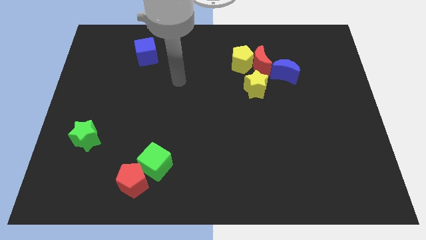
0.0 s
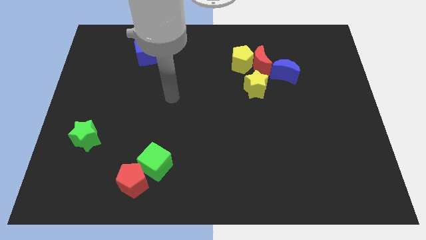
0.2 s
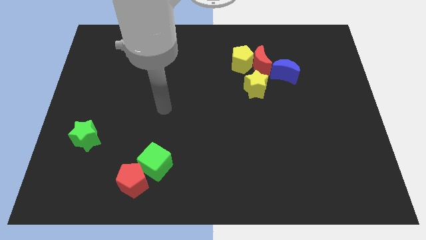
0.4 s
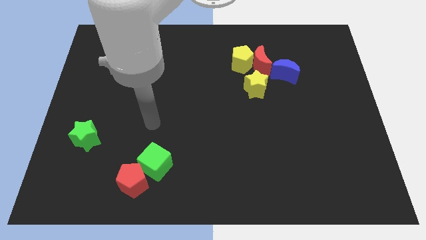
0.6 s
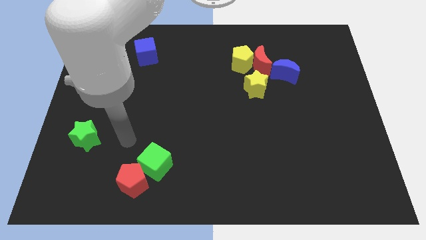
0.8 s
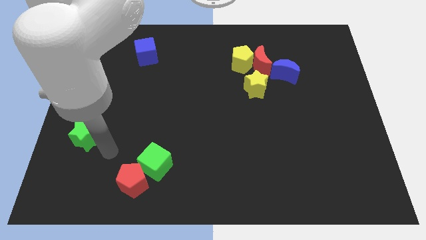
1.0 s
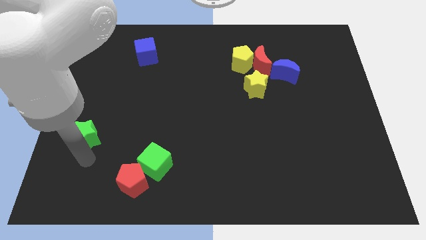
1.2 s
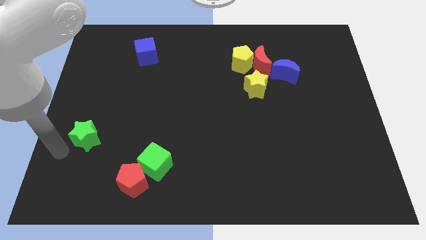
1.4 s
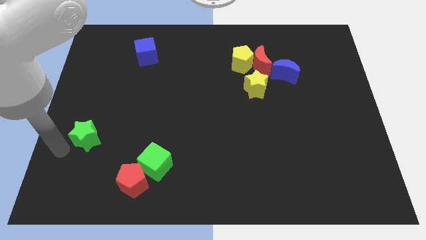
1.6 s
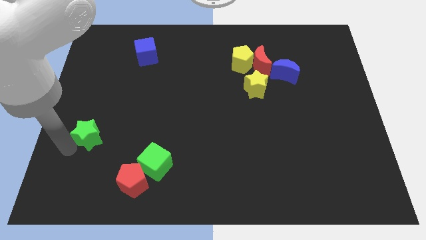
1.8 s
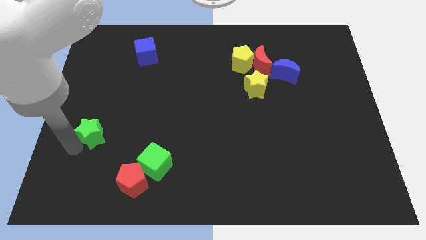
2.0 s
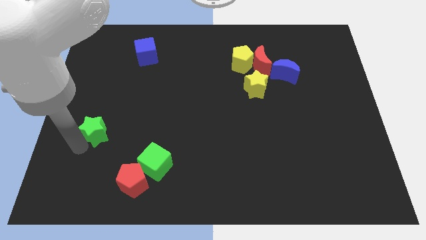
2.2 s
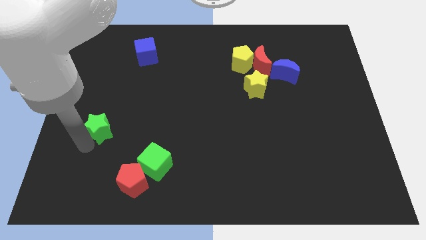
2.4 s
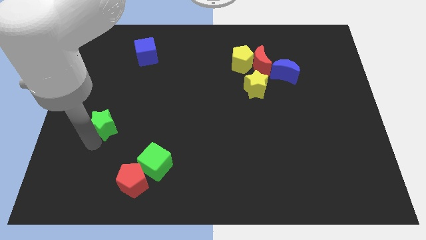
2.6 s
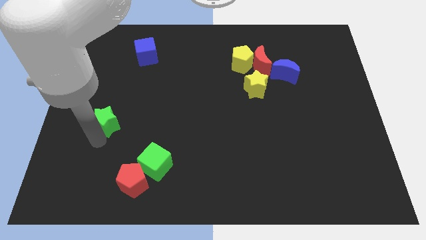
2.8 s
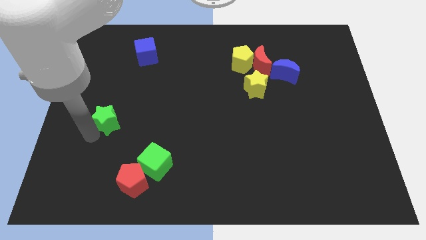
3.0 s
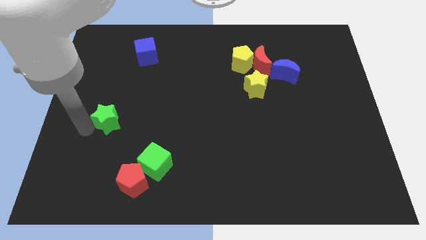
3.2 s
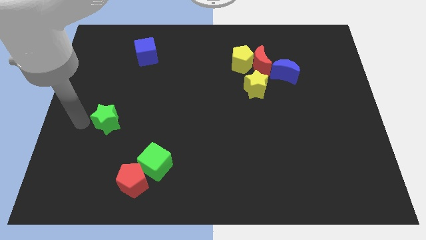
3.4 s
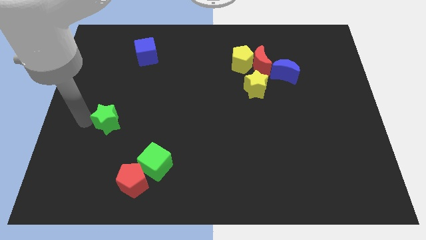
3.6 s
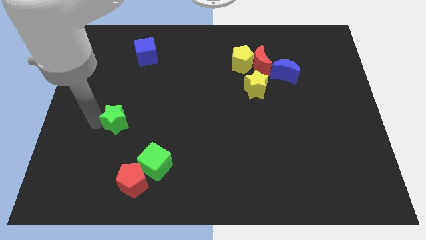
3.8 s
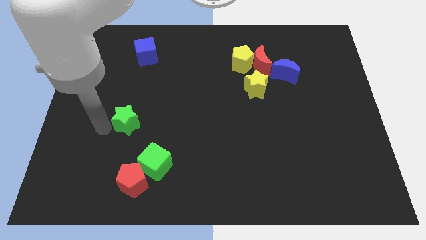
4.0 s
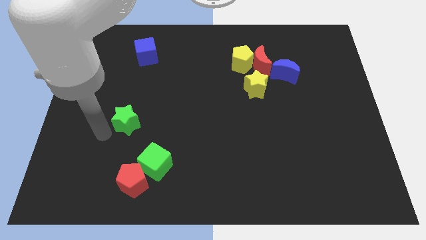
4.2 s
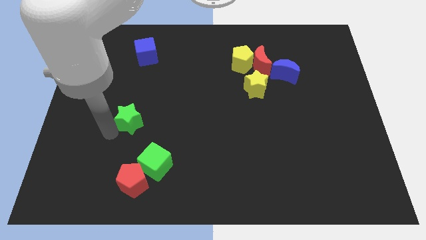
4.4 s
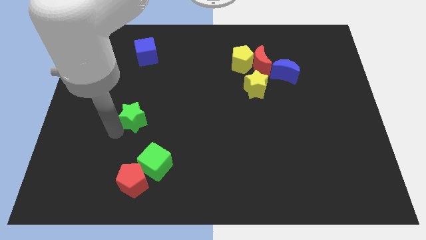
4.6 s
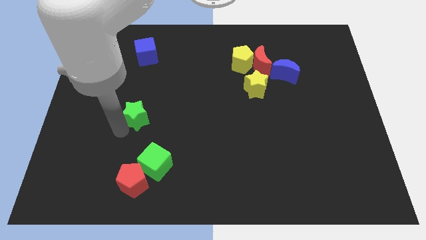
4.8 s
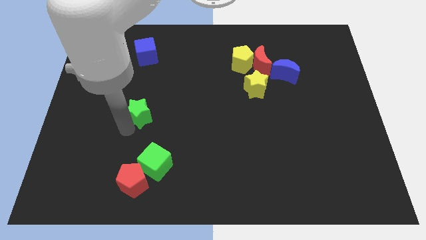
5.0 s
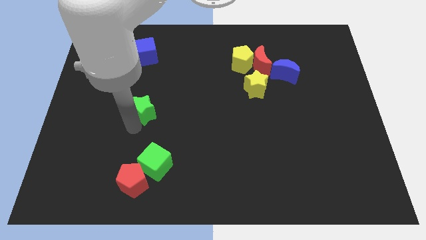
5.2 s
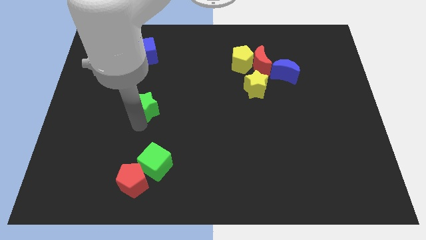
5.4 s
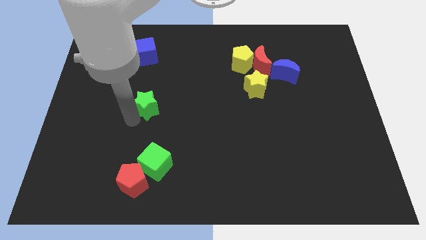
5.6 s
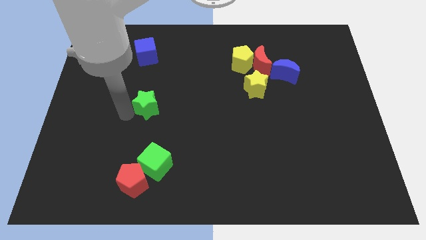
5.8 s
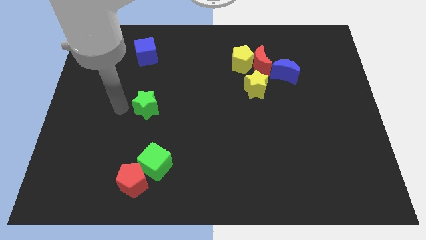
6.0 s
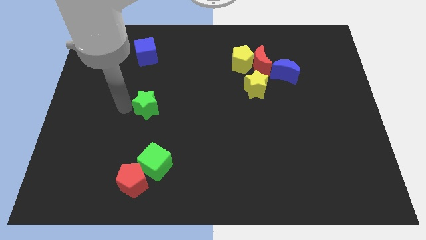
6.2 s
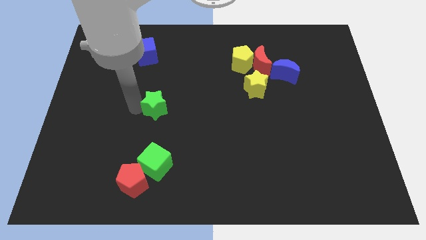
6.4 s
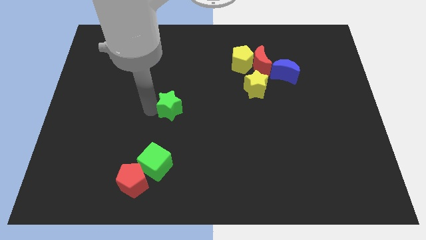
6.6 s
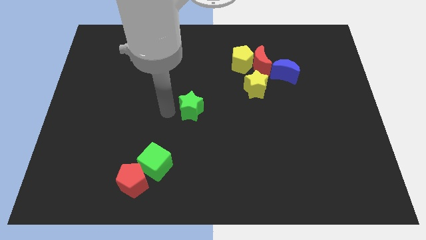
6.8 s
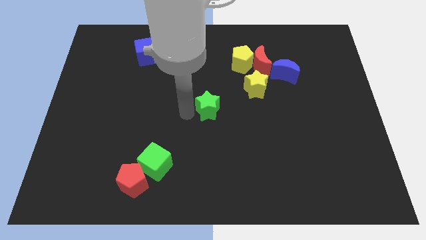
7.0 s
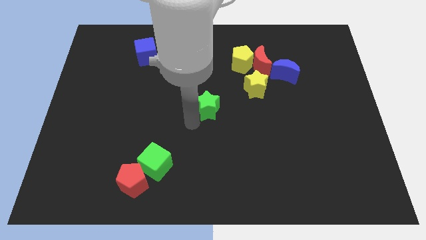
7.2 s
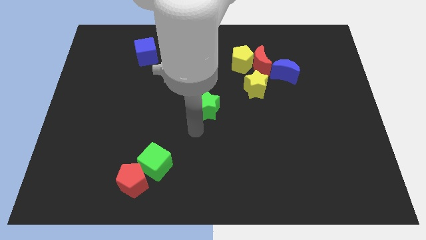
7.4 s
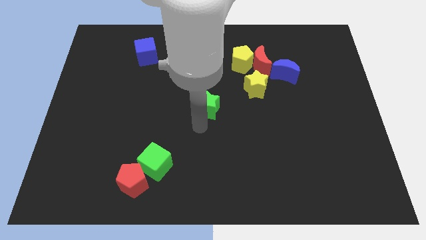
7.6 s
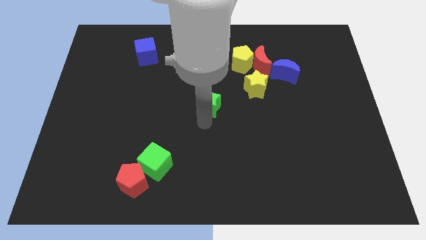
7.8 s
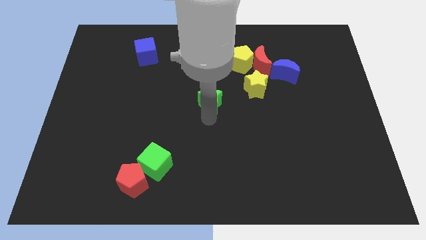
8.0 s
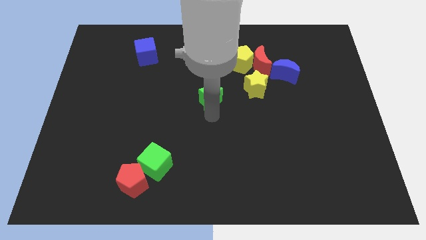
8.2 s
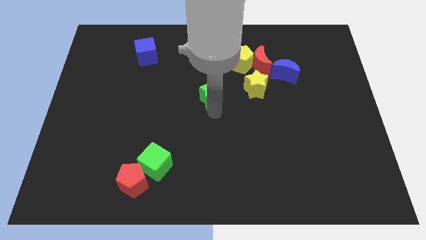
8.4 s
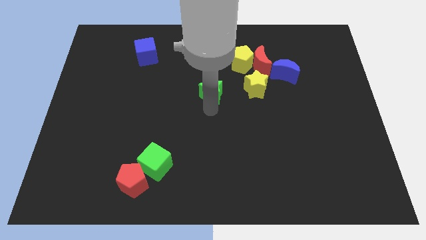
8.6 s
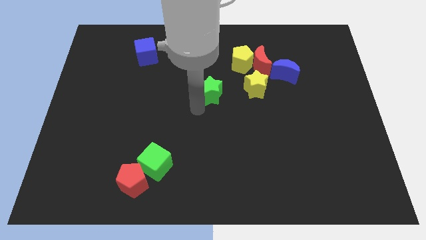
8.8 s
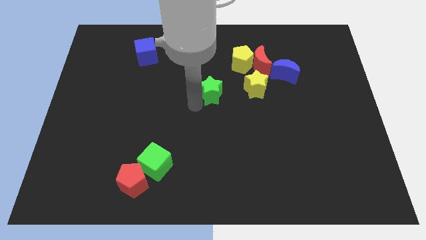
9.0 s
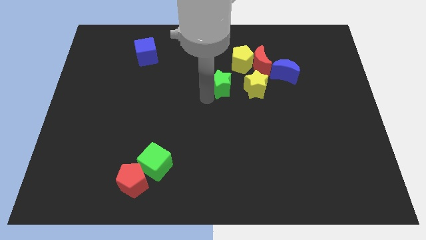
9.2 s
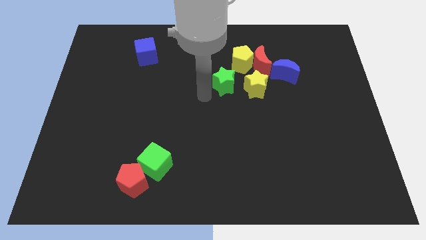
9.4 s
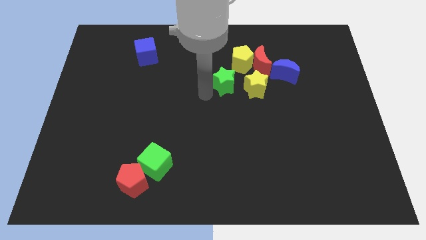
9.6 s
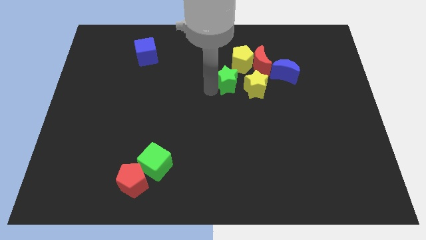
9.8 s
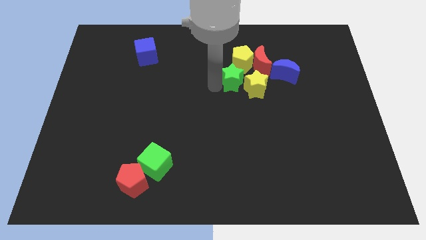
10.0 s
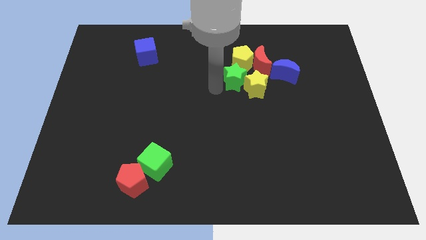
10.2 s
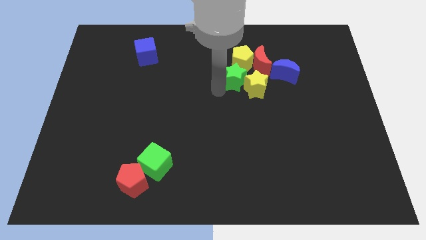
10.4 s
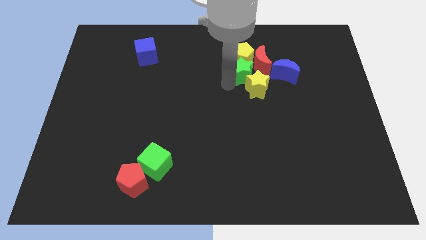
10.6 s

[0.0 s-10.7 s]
move the green star to the red moon

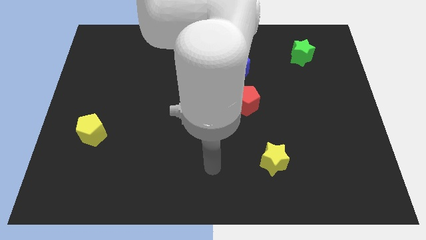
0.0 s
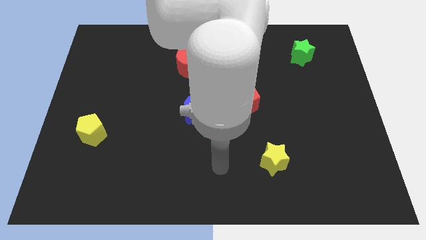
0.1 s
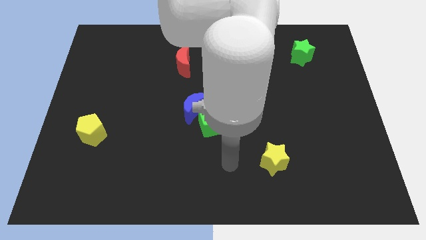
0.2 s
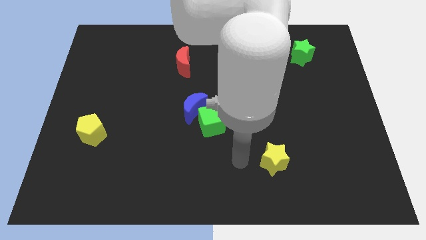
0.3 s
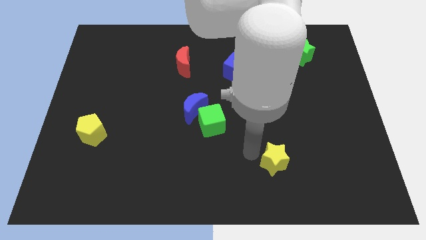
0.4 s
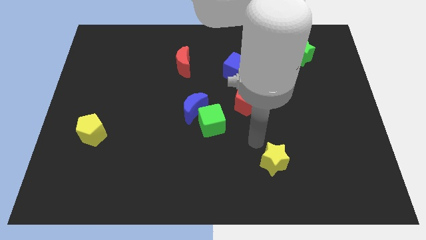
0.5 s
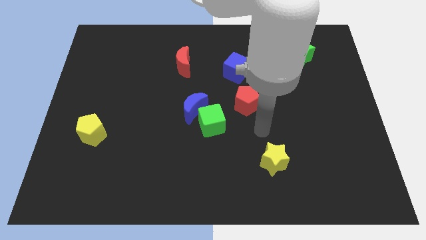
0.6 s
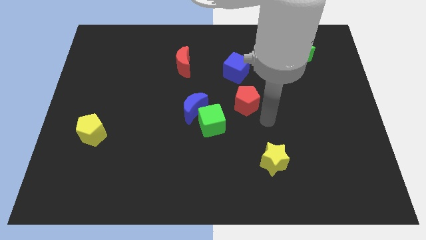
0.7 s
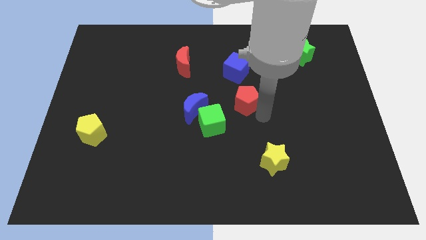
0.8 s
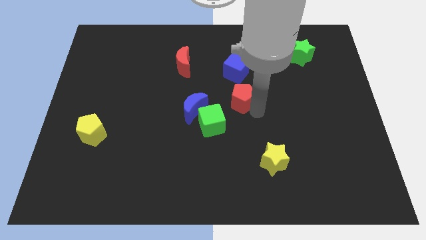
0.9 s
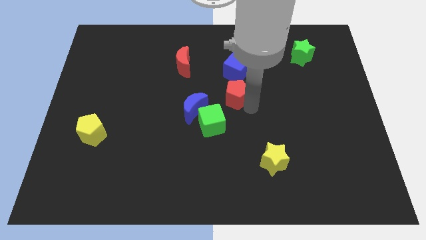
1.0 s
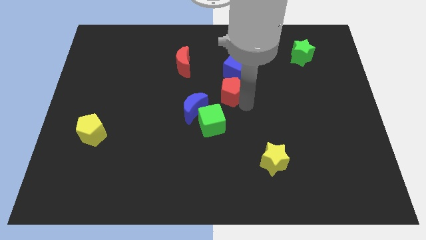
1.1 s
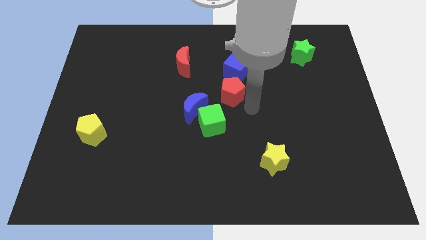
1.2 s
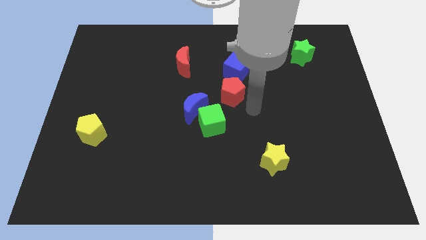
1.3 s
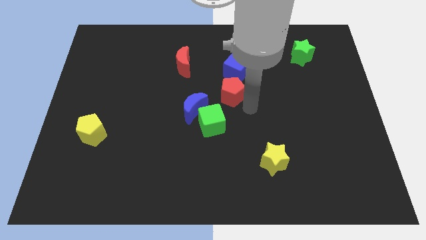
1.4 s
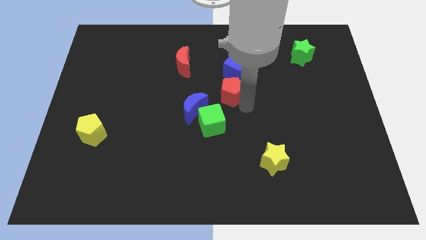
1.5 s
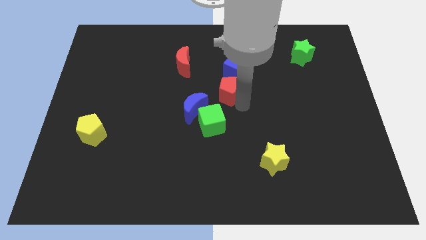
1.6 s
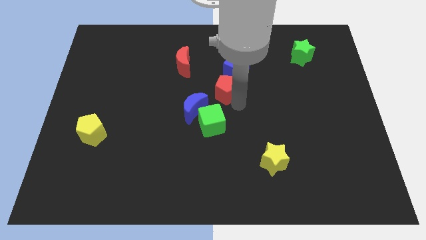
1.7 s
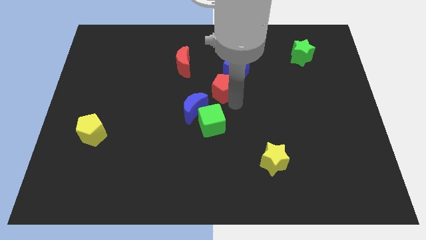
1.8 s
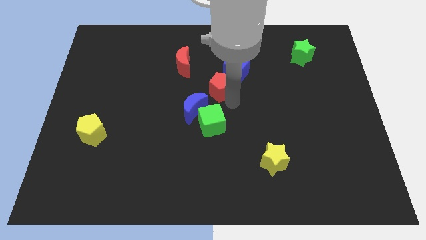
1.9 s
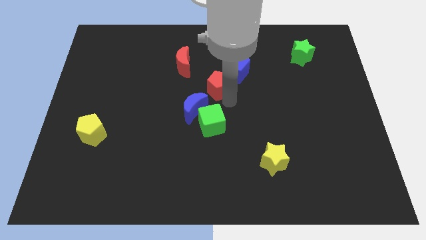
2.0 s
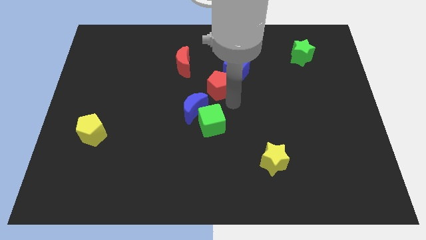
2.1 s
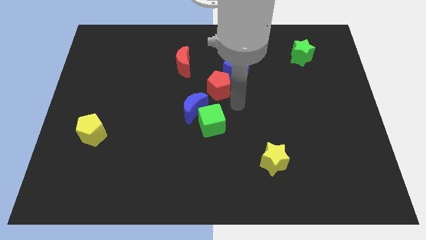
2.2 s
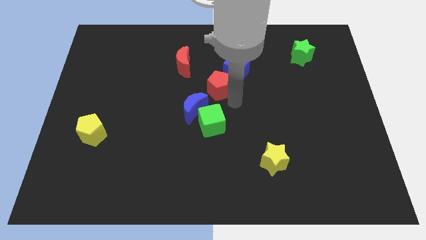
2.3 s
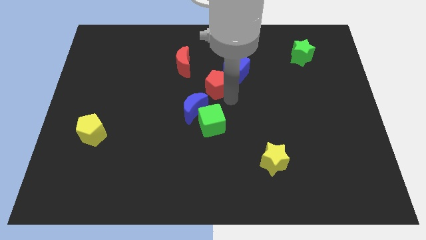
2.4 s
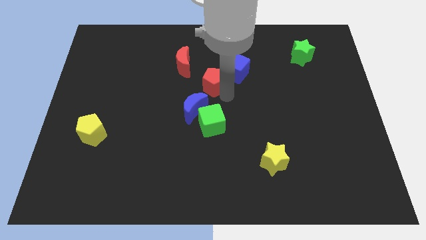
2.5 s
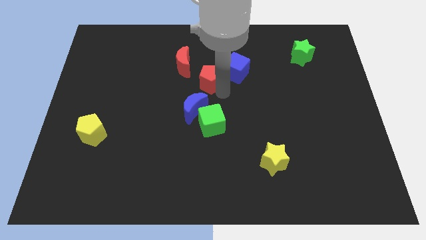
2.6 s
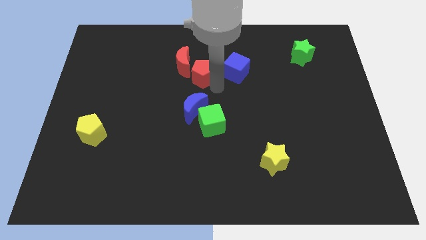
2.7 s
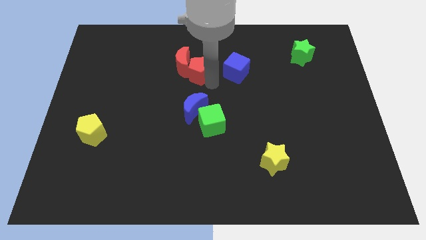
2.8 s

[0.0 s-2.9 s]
push the red pentagon to the red moon
